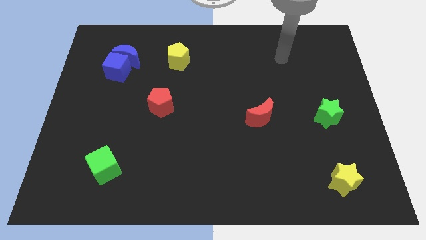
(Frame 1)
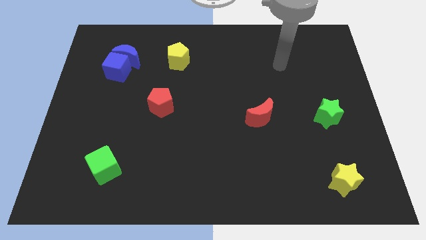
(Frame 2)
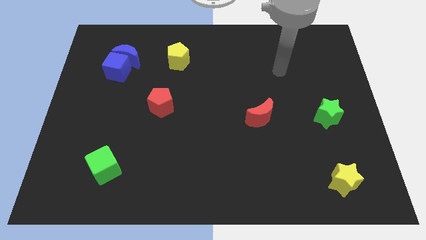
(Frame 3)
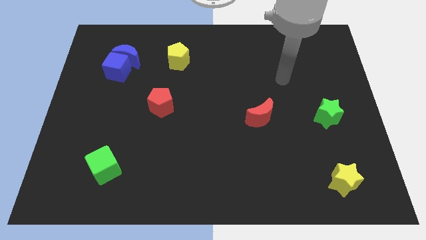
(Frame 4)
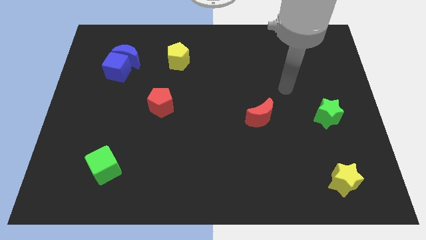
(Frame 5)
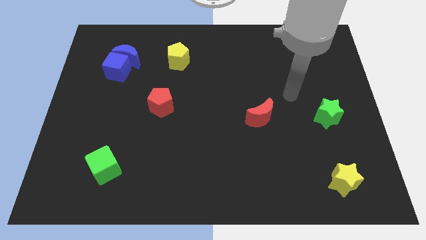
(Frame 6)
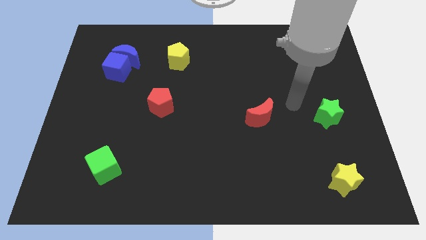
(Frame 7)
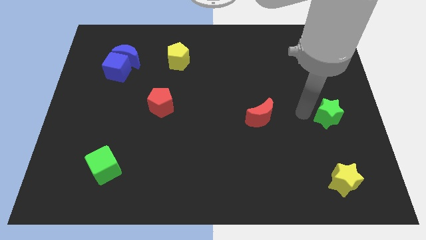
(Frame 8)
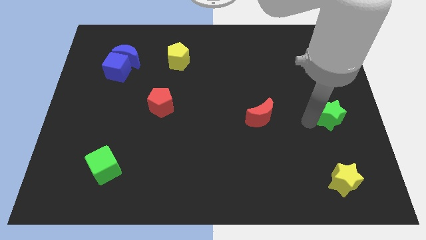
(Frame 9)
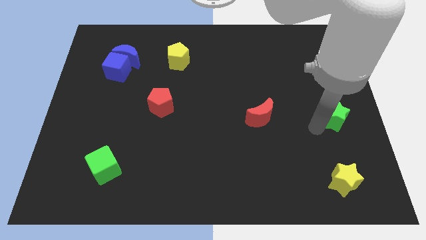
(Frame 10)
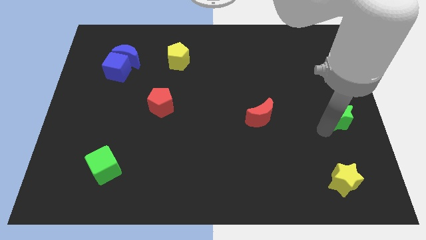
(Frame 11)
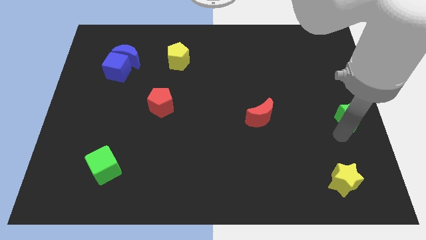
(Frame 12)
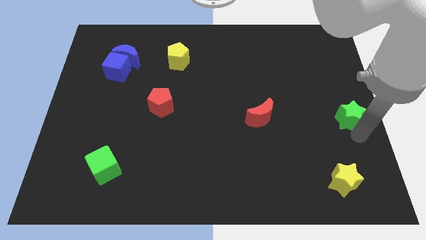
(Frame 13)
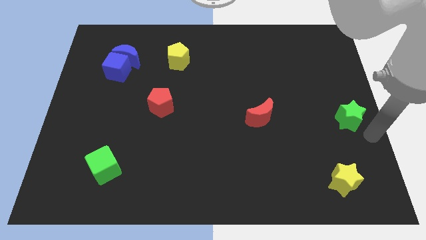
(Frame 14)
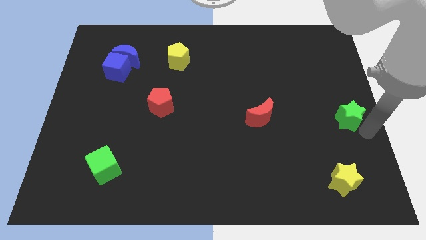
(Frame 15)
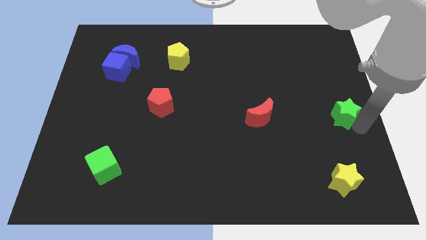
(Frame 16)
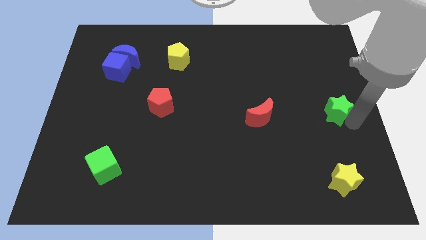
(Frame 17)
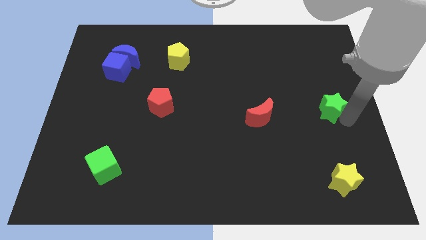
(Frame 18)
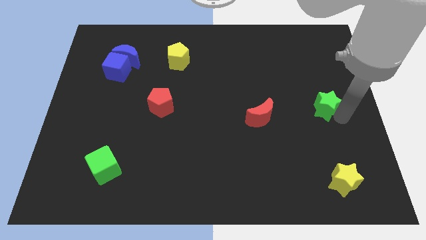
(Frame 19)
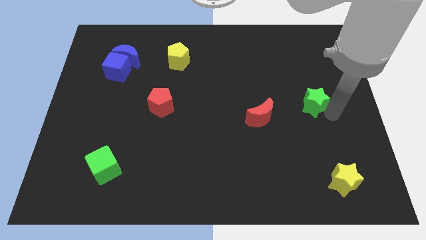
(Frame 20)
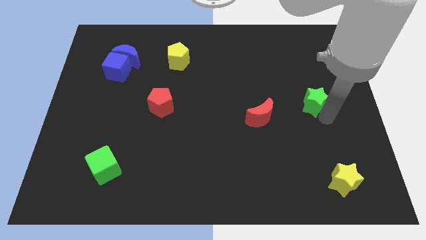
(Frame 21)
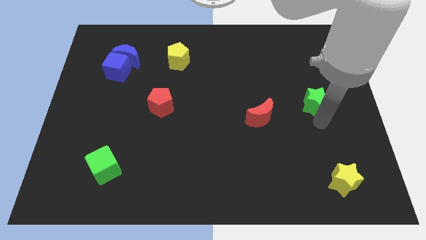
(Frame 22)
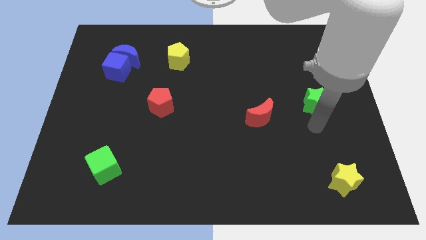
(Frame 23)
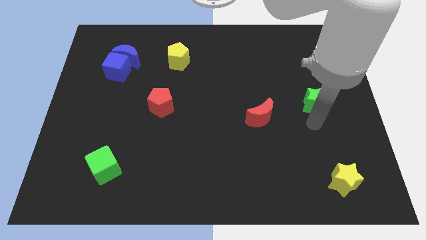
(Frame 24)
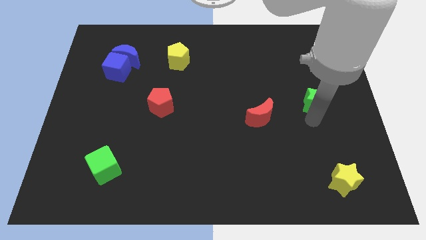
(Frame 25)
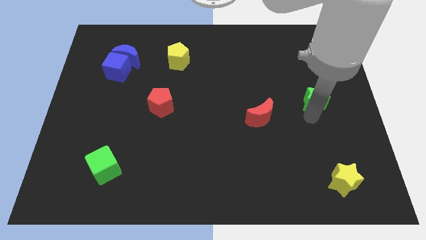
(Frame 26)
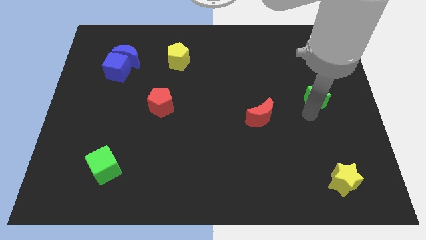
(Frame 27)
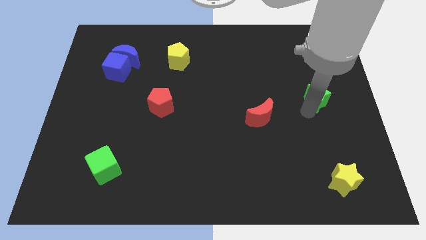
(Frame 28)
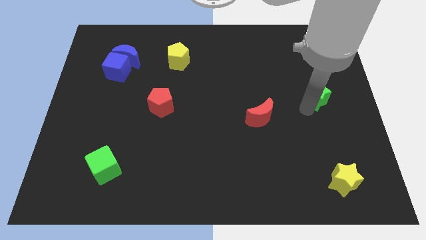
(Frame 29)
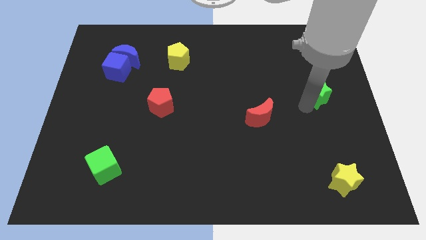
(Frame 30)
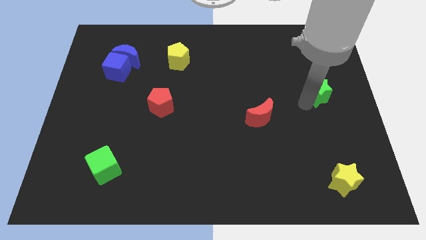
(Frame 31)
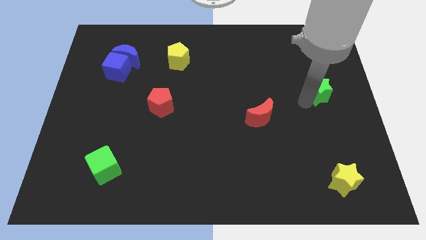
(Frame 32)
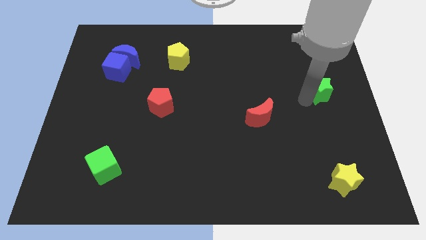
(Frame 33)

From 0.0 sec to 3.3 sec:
slightly move the green star up

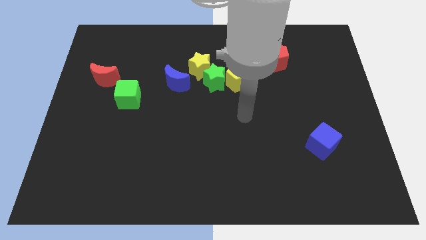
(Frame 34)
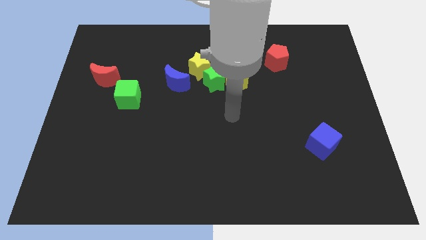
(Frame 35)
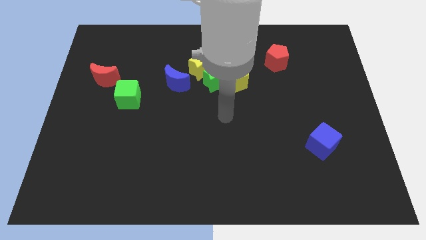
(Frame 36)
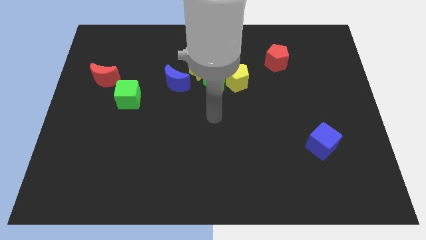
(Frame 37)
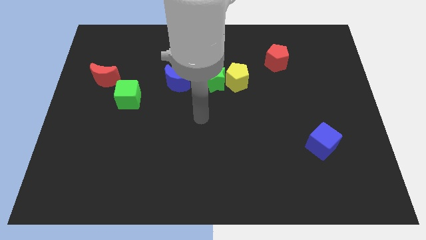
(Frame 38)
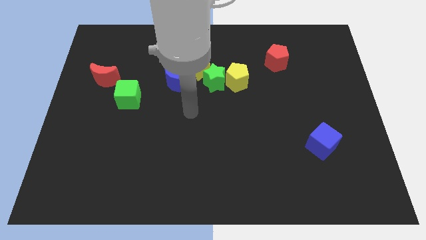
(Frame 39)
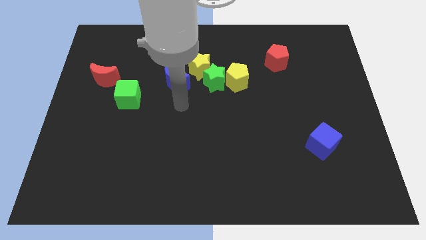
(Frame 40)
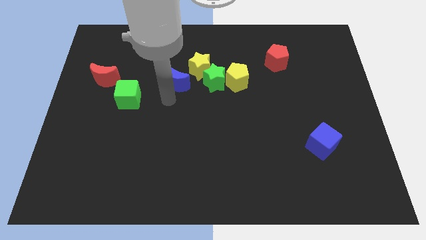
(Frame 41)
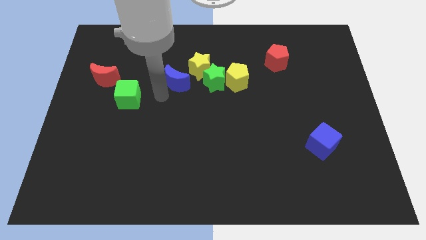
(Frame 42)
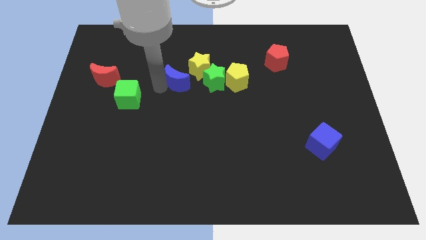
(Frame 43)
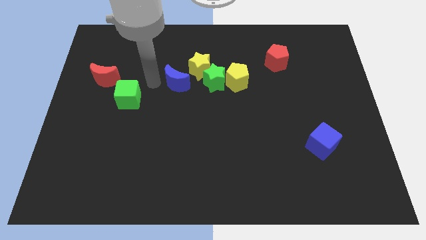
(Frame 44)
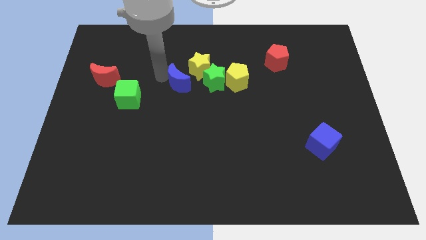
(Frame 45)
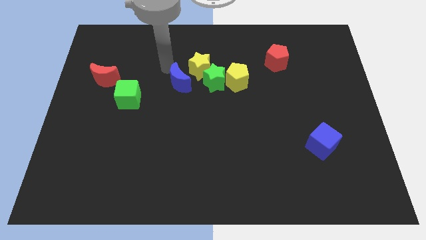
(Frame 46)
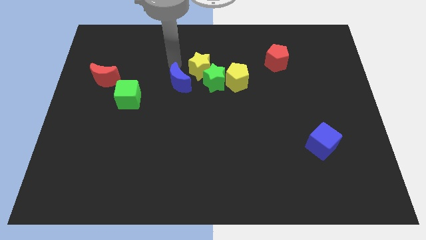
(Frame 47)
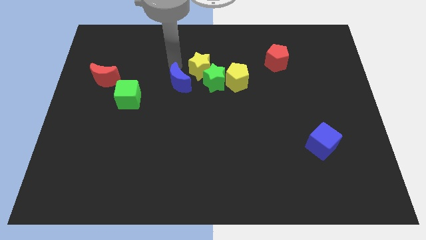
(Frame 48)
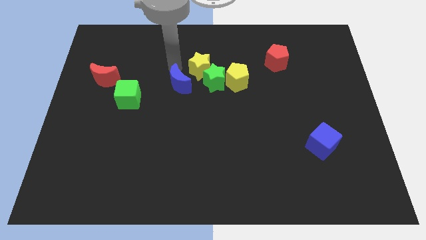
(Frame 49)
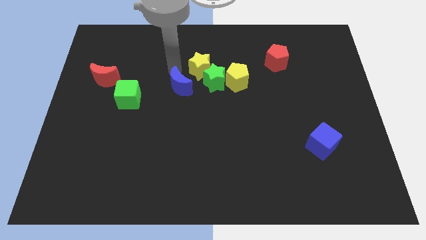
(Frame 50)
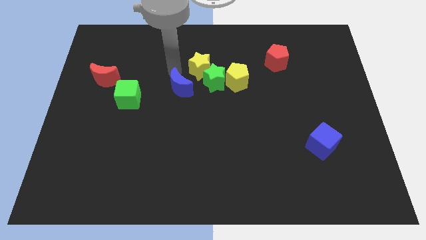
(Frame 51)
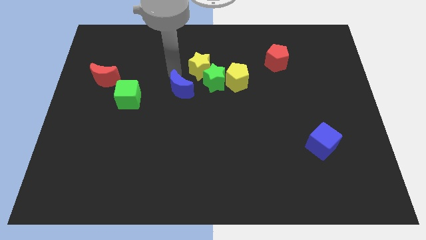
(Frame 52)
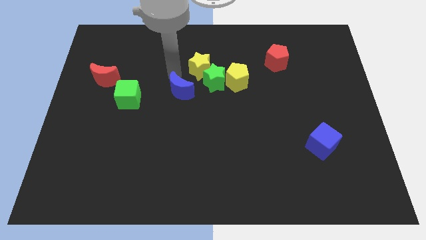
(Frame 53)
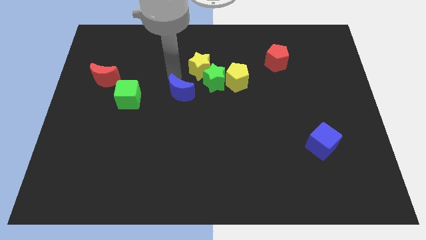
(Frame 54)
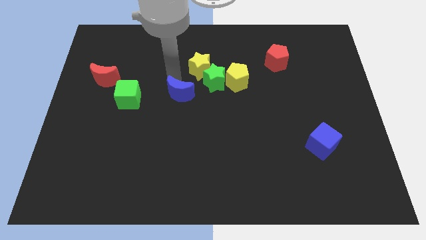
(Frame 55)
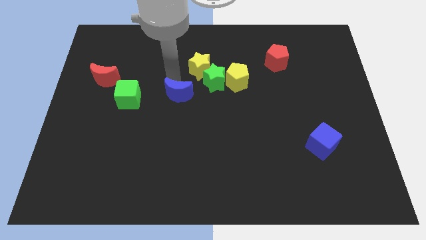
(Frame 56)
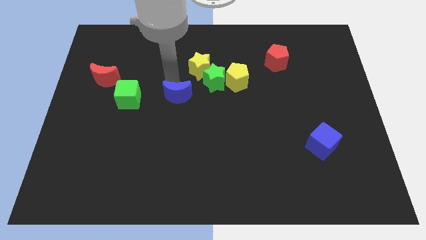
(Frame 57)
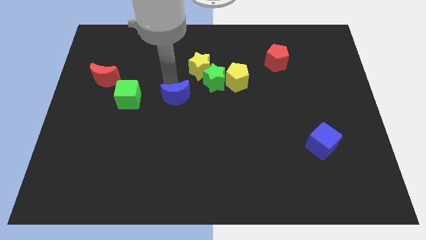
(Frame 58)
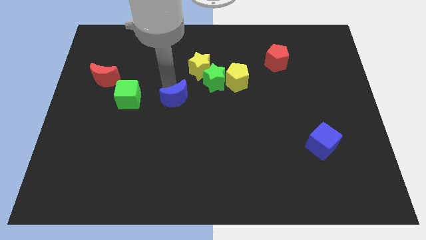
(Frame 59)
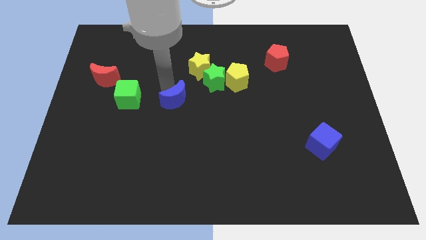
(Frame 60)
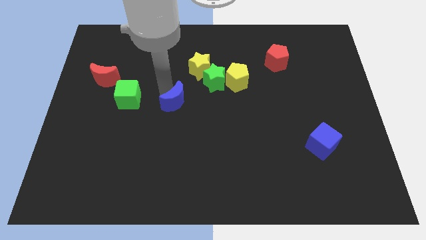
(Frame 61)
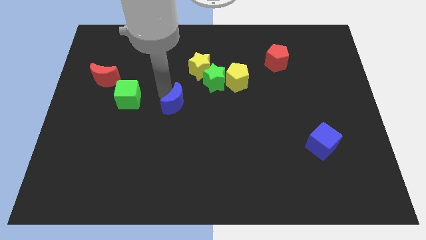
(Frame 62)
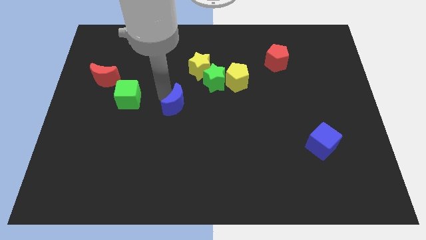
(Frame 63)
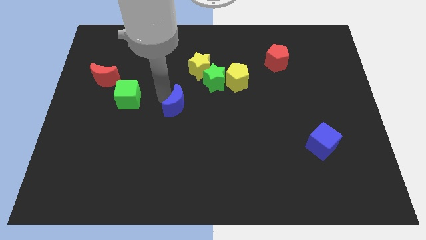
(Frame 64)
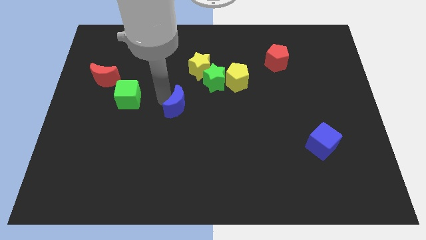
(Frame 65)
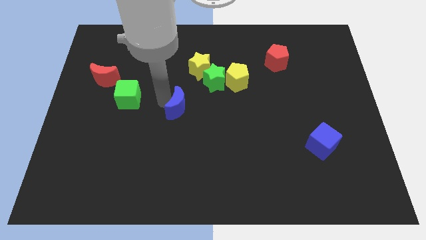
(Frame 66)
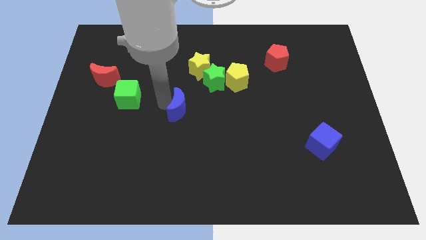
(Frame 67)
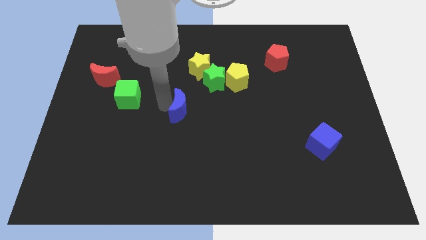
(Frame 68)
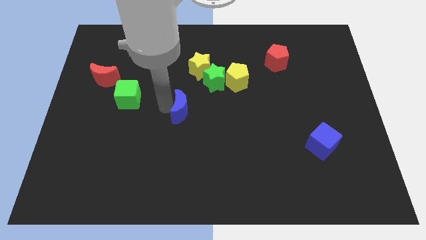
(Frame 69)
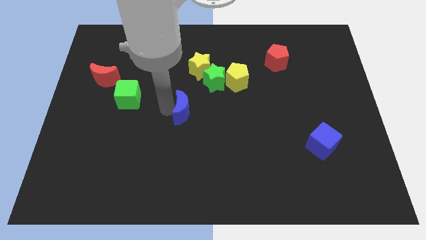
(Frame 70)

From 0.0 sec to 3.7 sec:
move the blue moon slightly down and to the right

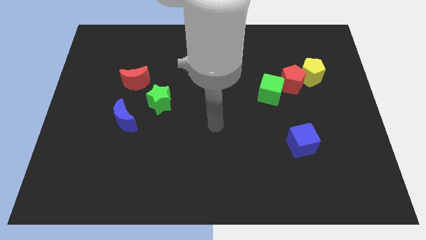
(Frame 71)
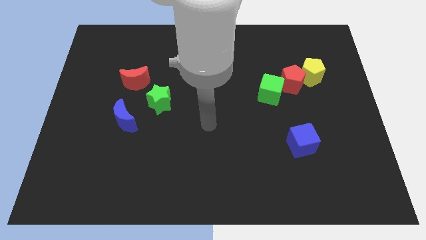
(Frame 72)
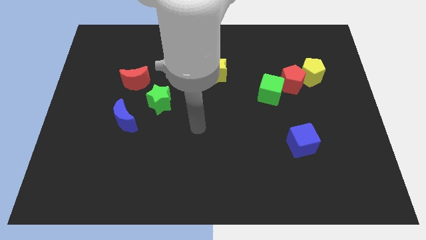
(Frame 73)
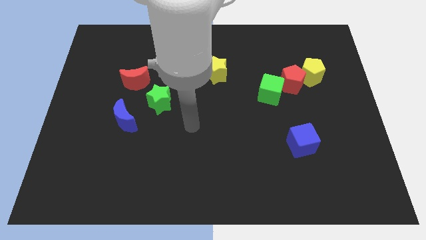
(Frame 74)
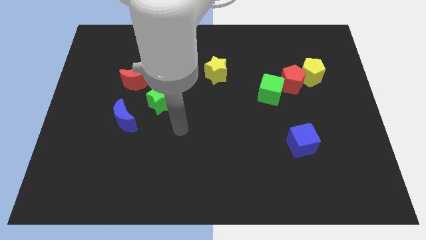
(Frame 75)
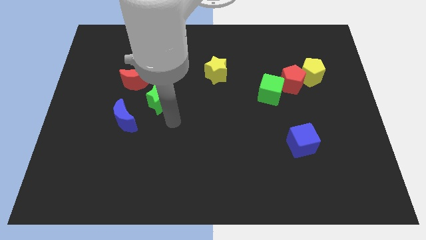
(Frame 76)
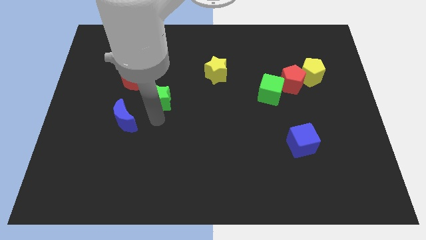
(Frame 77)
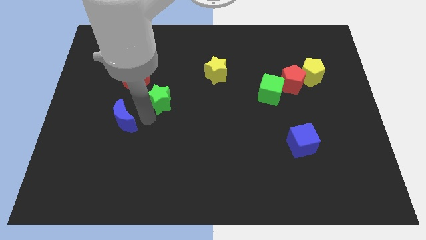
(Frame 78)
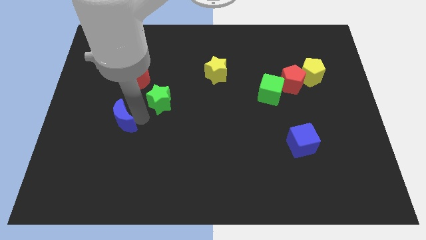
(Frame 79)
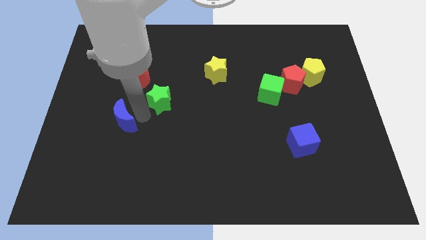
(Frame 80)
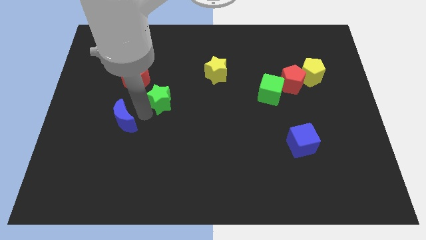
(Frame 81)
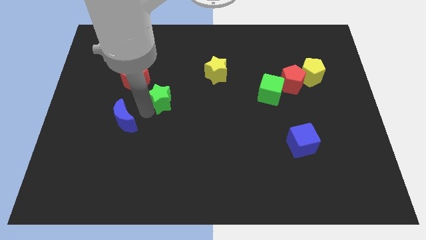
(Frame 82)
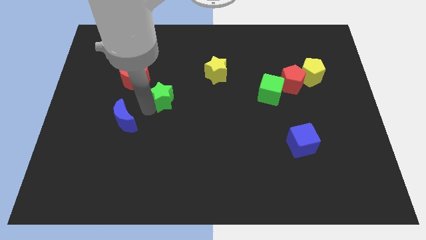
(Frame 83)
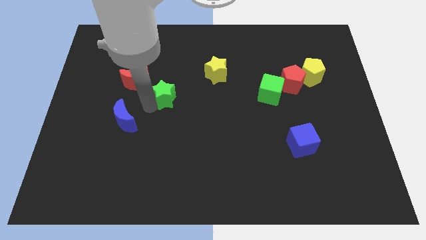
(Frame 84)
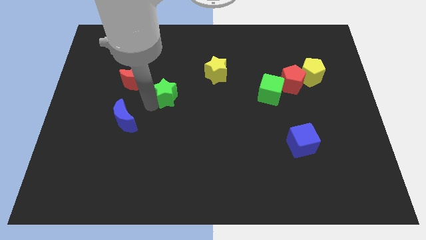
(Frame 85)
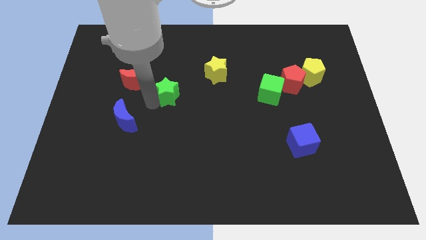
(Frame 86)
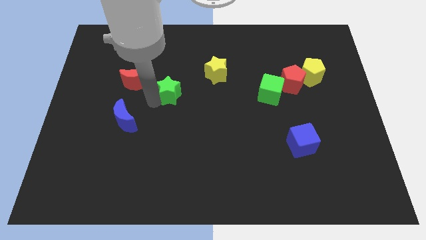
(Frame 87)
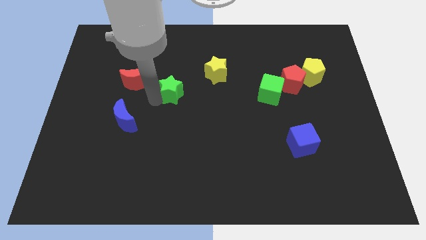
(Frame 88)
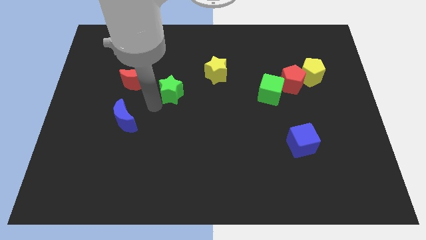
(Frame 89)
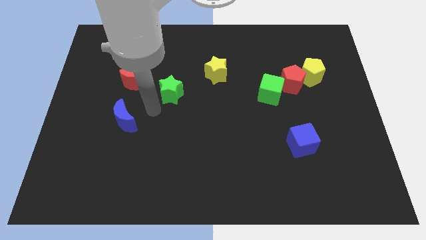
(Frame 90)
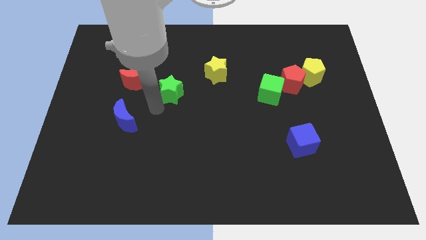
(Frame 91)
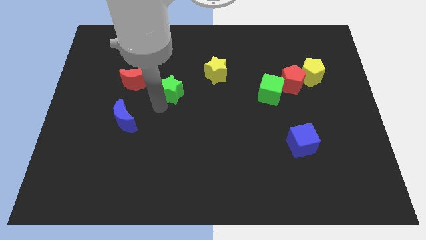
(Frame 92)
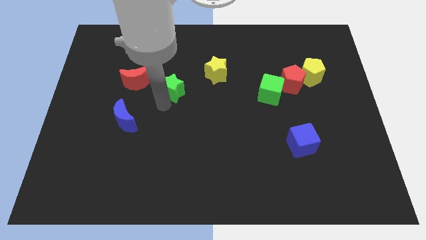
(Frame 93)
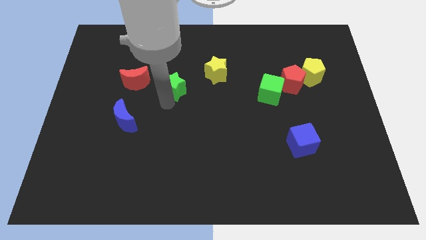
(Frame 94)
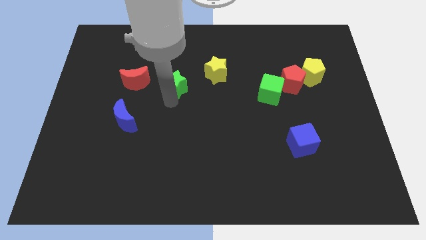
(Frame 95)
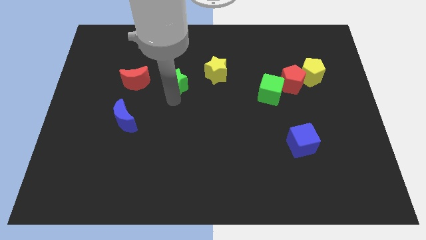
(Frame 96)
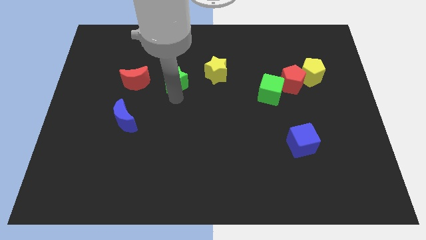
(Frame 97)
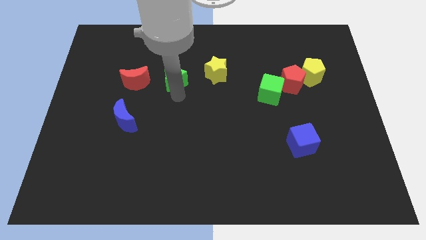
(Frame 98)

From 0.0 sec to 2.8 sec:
slide the green star upwards and to the right slightly
